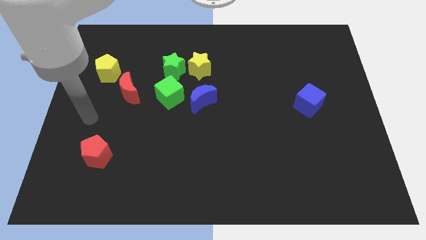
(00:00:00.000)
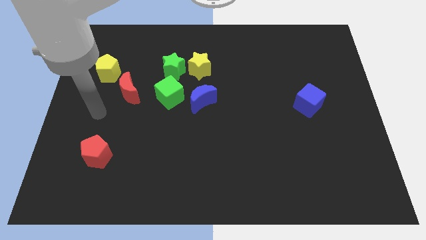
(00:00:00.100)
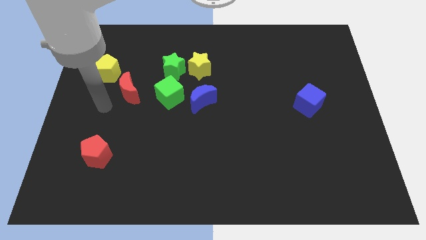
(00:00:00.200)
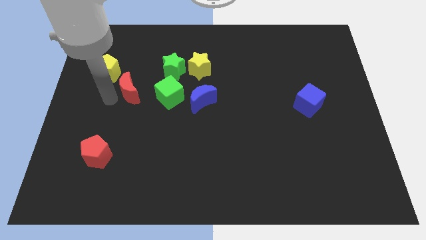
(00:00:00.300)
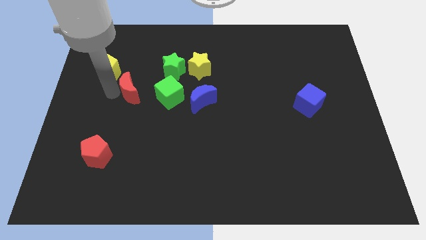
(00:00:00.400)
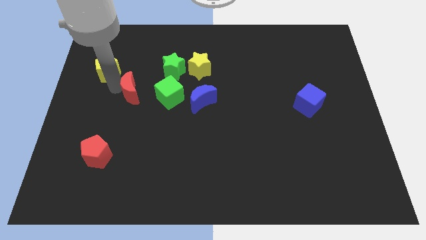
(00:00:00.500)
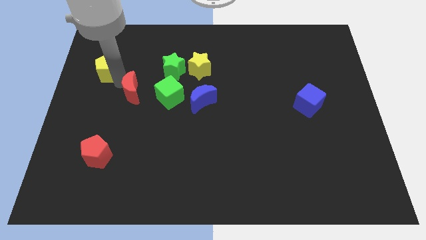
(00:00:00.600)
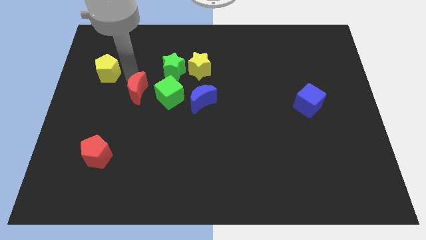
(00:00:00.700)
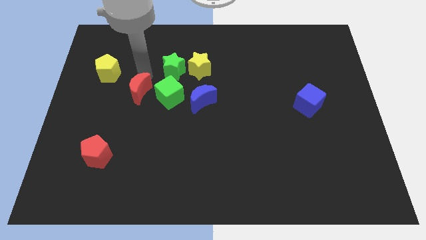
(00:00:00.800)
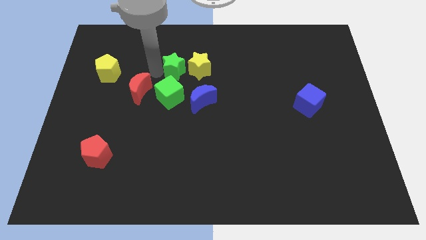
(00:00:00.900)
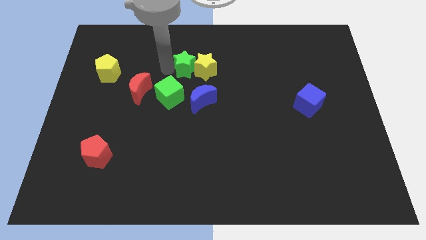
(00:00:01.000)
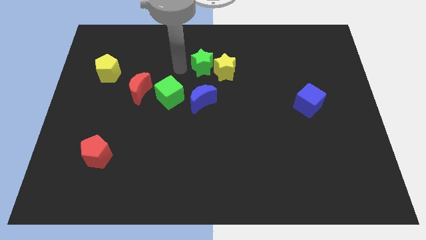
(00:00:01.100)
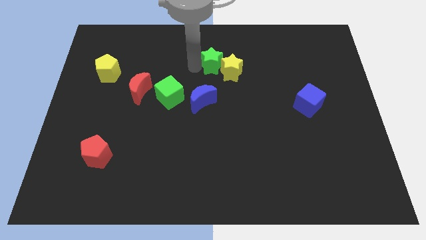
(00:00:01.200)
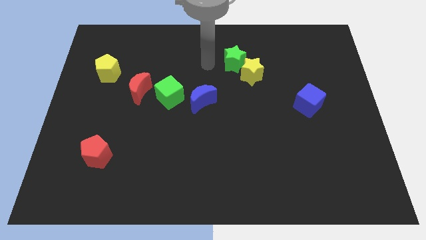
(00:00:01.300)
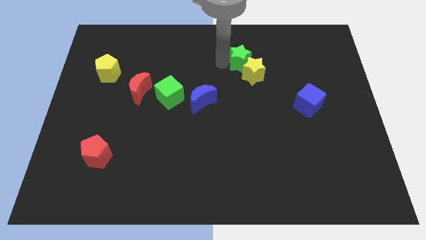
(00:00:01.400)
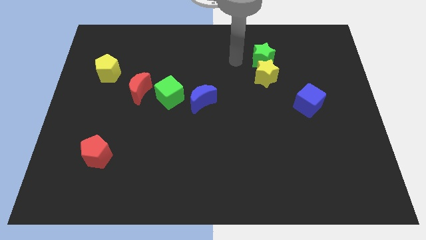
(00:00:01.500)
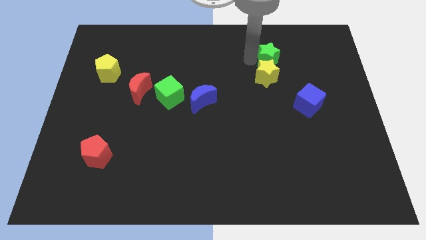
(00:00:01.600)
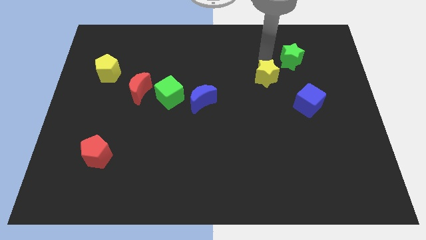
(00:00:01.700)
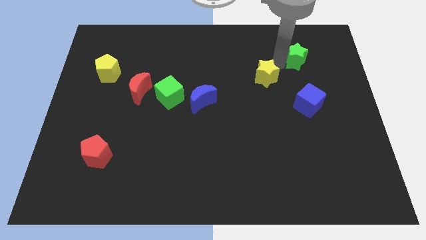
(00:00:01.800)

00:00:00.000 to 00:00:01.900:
pull the yellow star apart from the green star

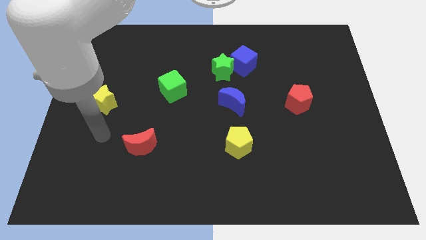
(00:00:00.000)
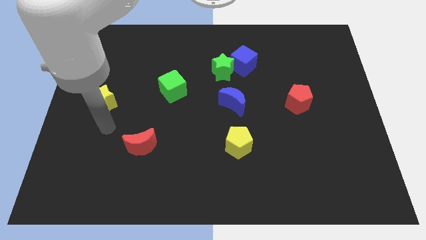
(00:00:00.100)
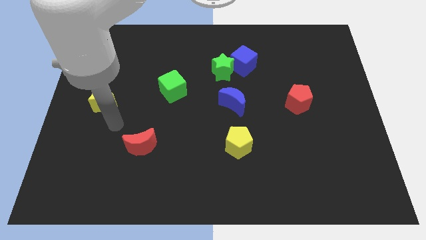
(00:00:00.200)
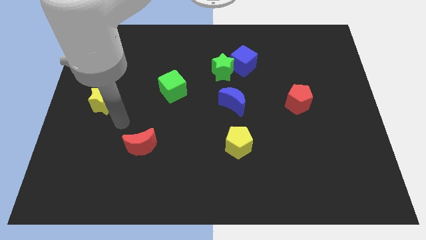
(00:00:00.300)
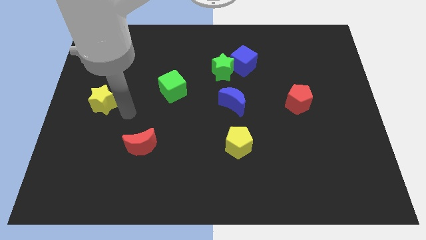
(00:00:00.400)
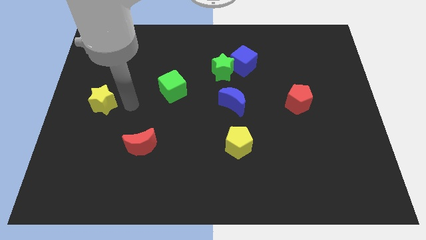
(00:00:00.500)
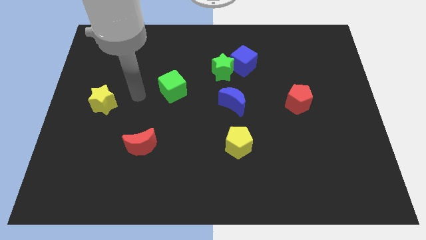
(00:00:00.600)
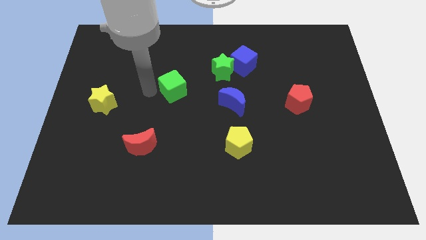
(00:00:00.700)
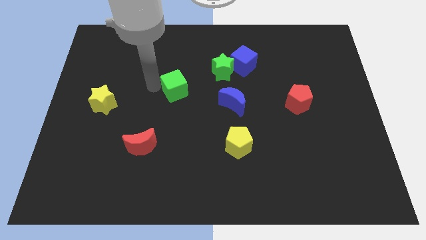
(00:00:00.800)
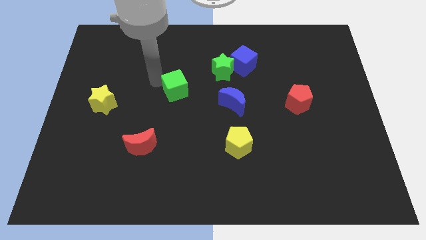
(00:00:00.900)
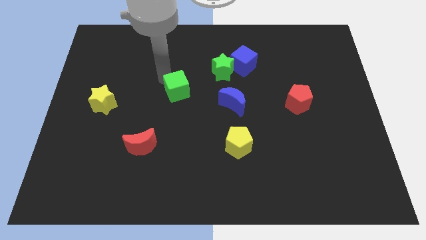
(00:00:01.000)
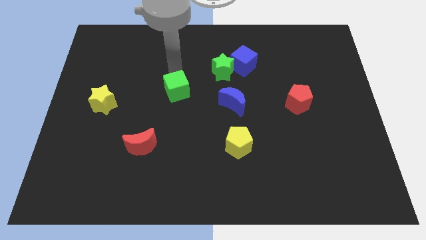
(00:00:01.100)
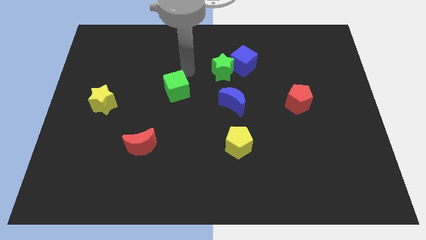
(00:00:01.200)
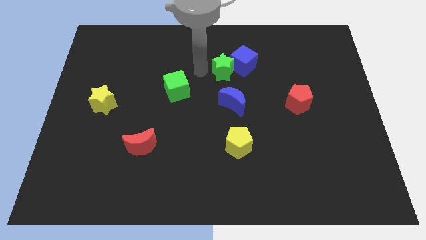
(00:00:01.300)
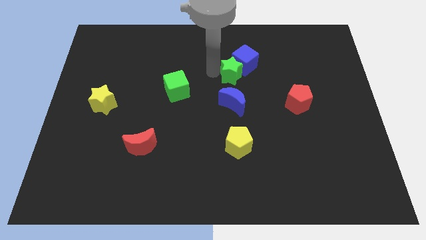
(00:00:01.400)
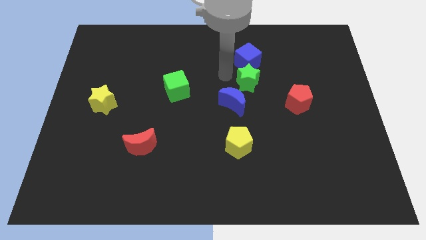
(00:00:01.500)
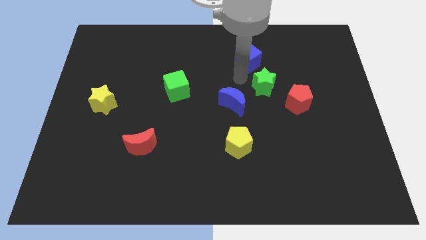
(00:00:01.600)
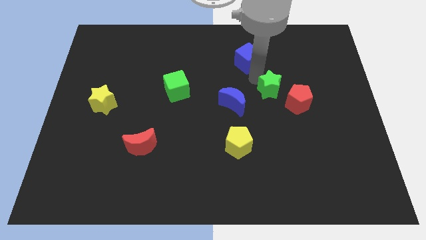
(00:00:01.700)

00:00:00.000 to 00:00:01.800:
separate the blue cube from the green star

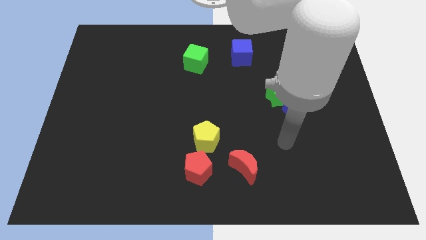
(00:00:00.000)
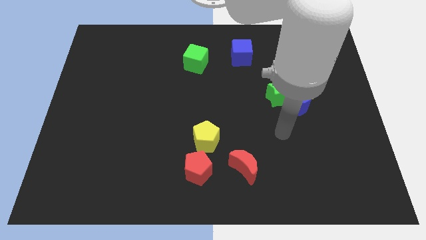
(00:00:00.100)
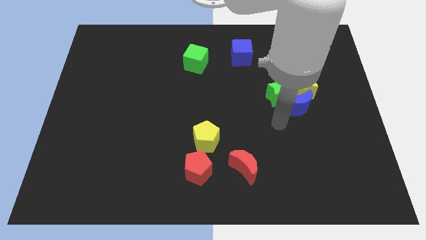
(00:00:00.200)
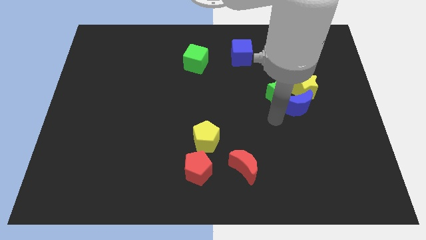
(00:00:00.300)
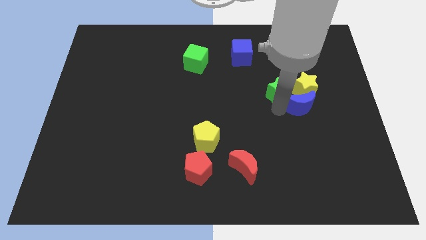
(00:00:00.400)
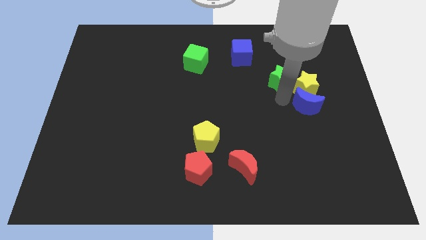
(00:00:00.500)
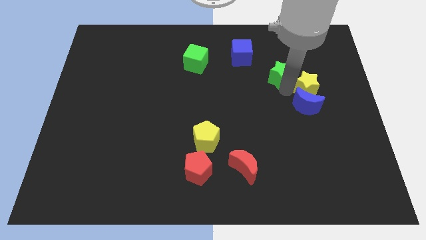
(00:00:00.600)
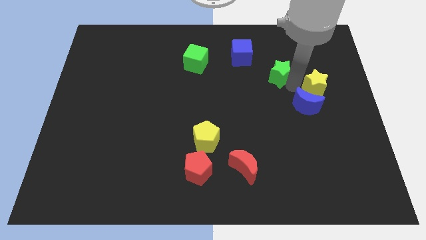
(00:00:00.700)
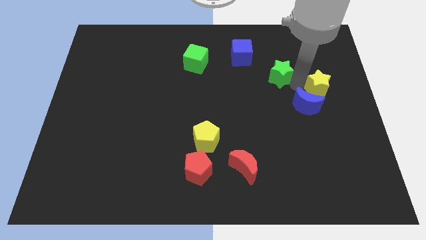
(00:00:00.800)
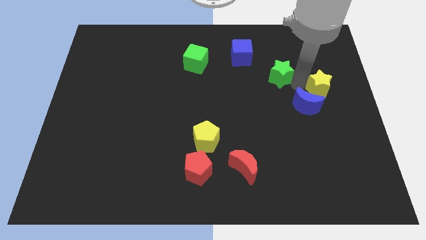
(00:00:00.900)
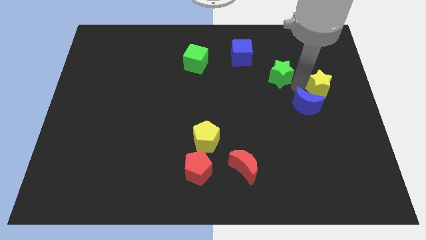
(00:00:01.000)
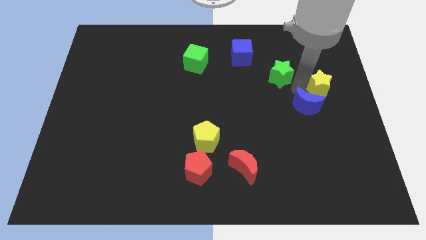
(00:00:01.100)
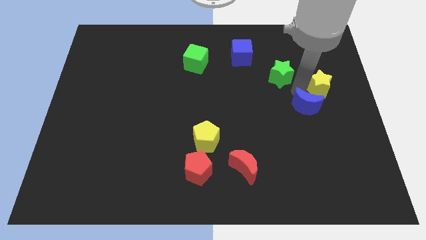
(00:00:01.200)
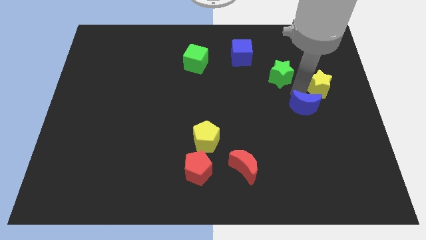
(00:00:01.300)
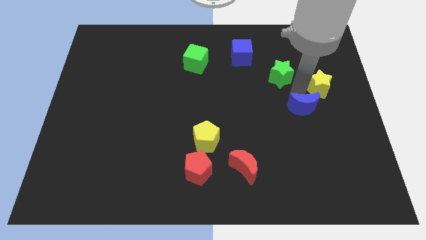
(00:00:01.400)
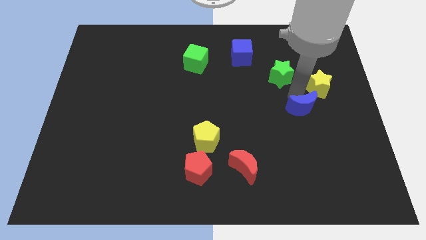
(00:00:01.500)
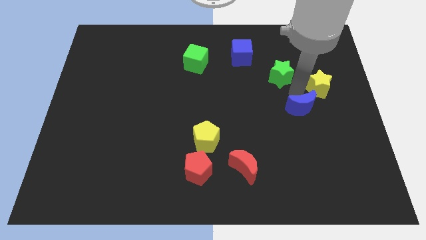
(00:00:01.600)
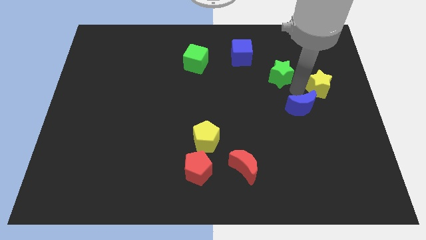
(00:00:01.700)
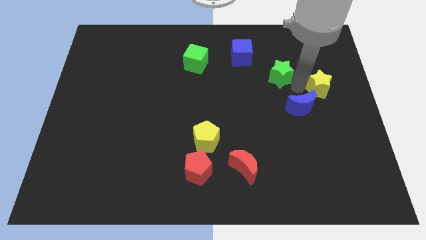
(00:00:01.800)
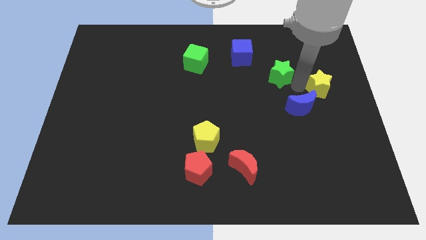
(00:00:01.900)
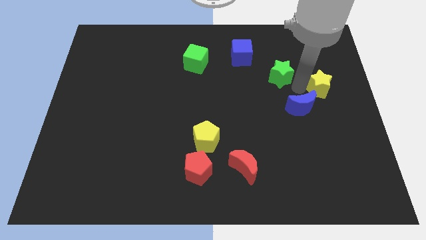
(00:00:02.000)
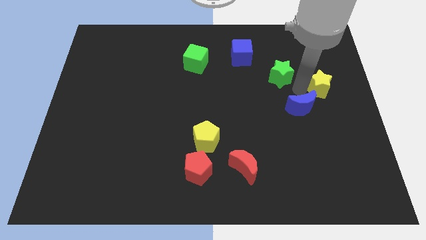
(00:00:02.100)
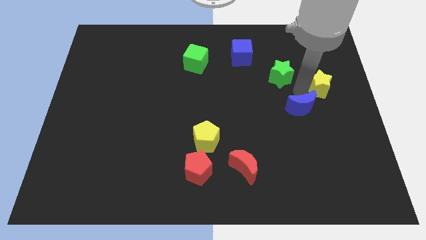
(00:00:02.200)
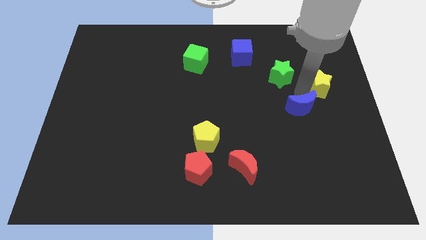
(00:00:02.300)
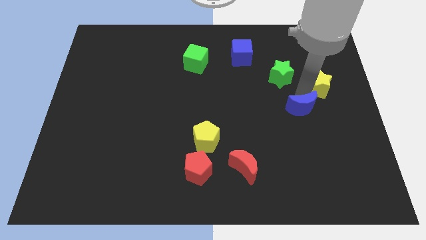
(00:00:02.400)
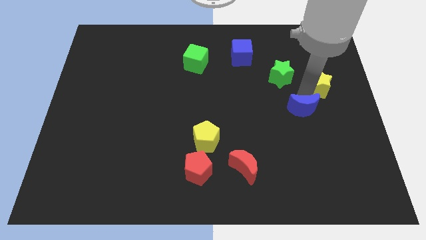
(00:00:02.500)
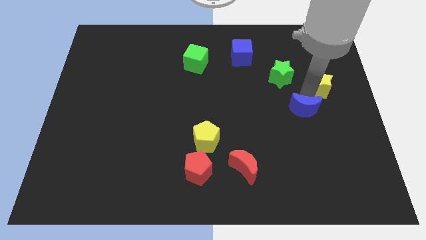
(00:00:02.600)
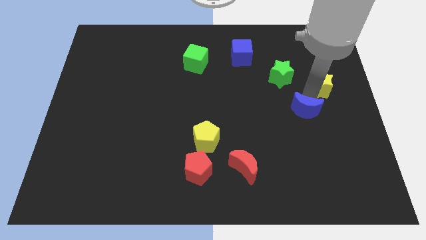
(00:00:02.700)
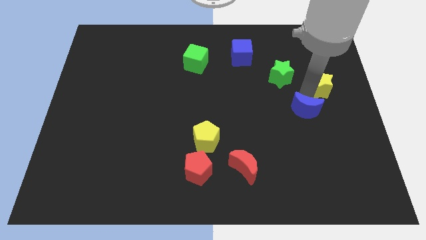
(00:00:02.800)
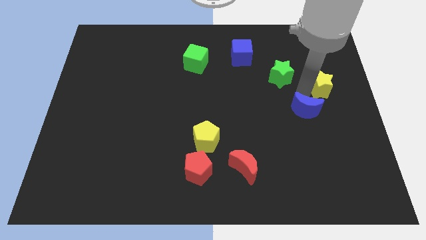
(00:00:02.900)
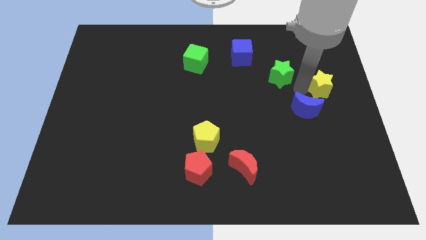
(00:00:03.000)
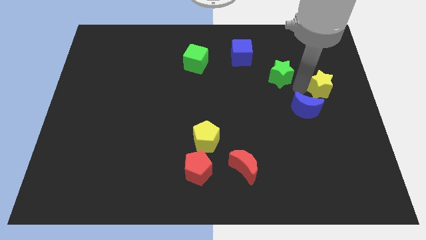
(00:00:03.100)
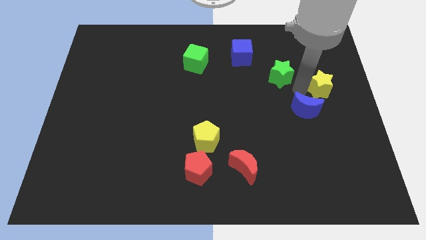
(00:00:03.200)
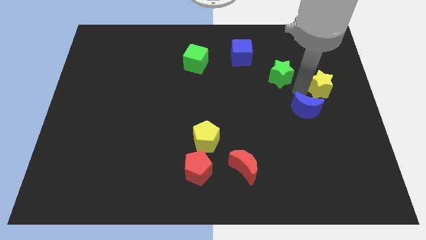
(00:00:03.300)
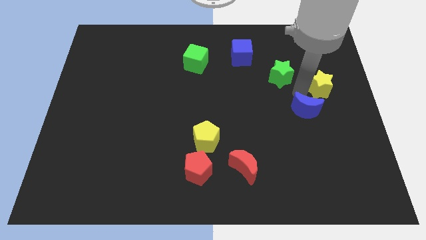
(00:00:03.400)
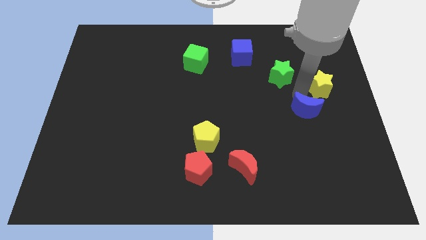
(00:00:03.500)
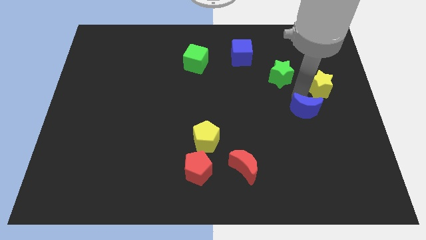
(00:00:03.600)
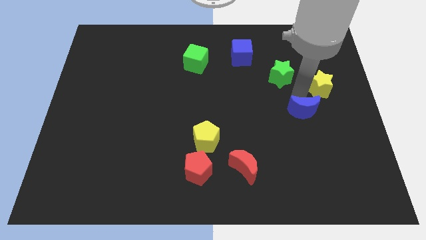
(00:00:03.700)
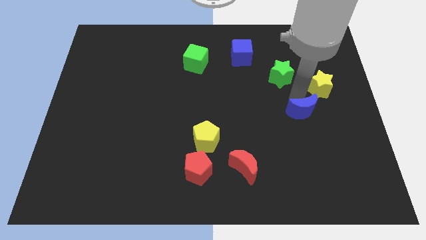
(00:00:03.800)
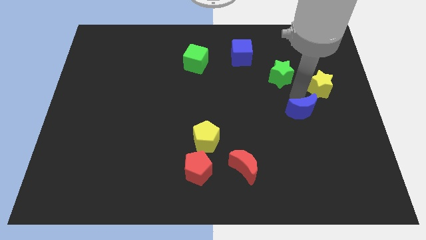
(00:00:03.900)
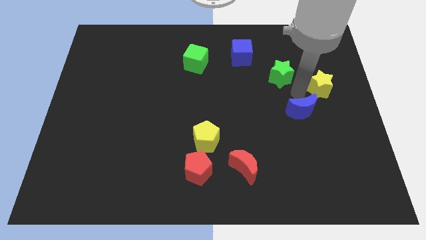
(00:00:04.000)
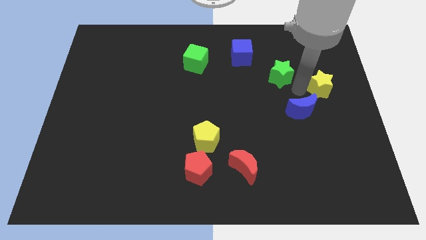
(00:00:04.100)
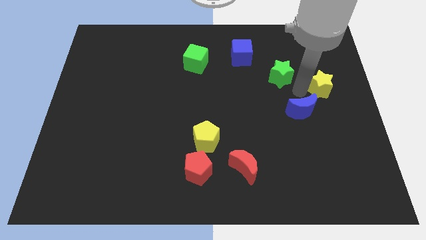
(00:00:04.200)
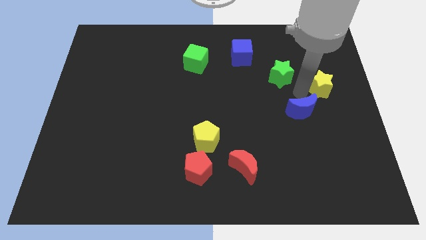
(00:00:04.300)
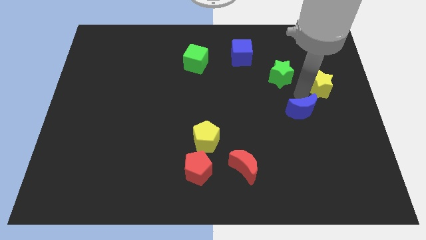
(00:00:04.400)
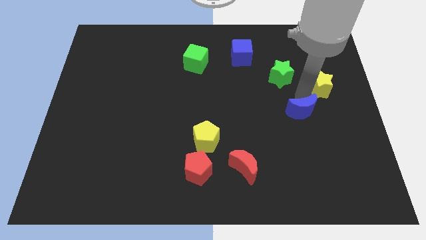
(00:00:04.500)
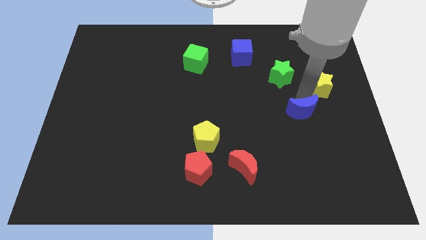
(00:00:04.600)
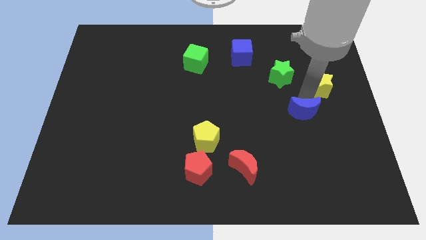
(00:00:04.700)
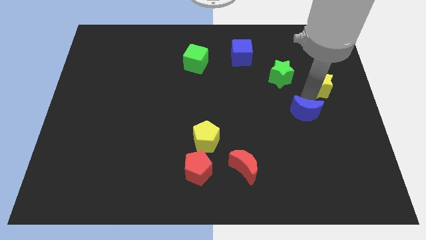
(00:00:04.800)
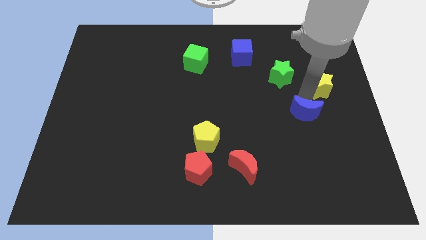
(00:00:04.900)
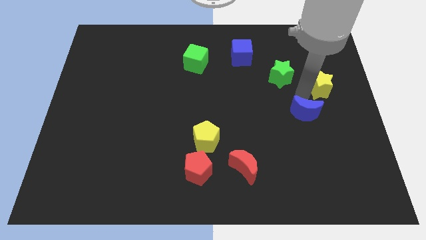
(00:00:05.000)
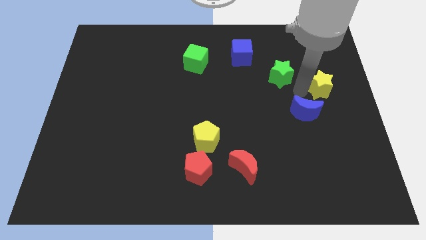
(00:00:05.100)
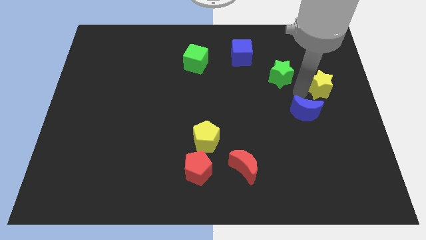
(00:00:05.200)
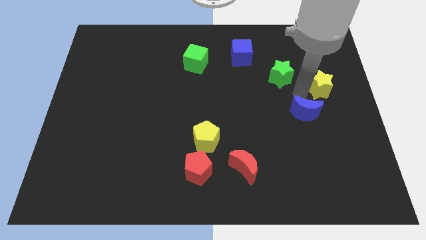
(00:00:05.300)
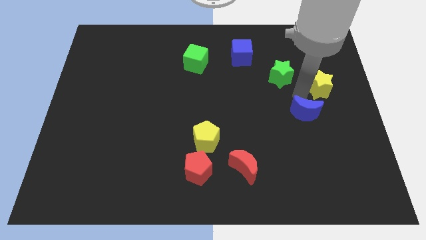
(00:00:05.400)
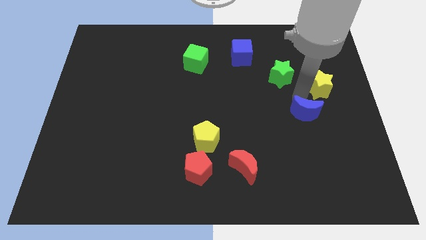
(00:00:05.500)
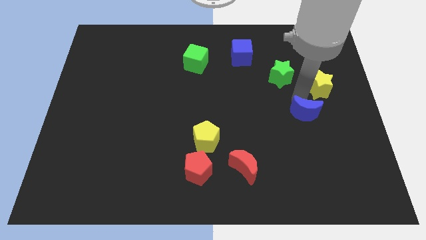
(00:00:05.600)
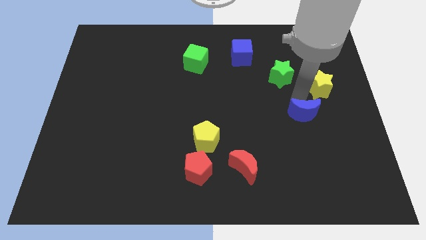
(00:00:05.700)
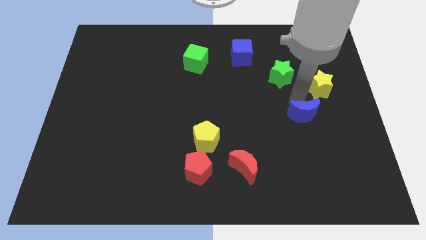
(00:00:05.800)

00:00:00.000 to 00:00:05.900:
move the blue moon away from the yellow star and green star
